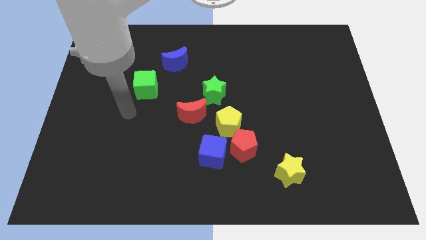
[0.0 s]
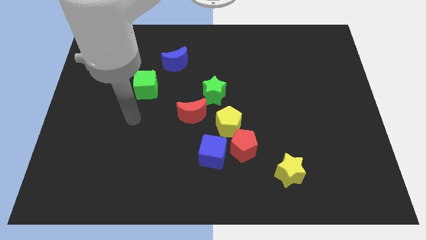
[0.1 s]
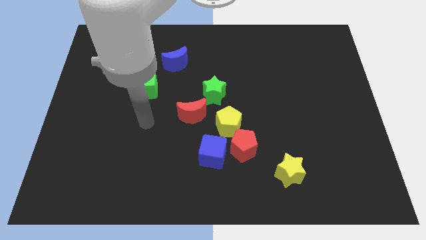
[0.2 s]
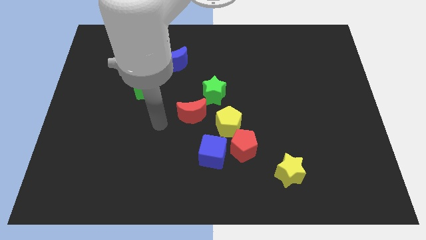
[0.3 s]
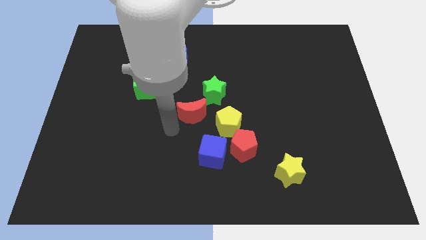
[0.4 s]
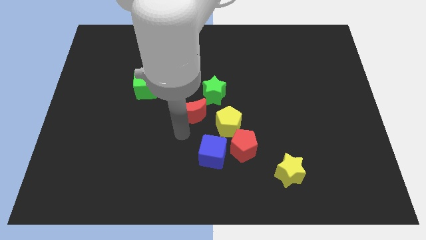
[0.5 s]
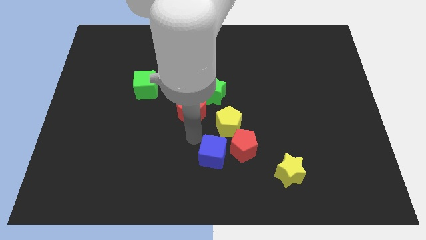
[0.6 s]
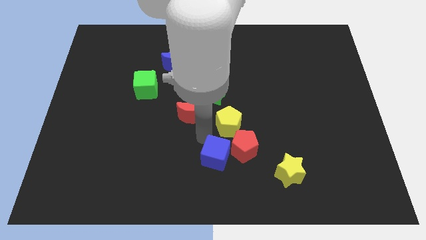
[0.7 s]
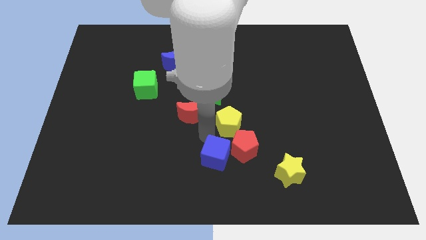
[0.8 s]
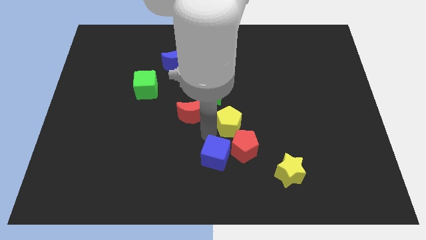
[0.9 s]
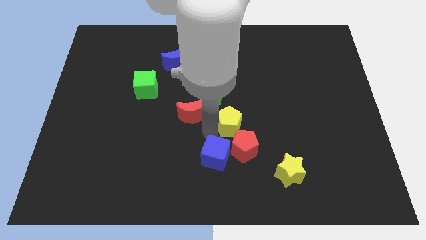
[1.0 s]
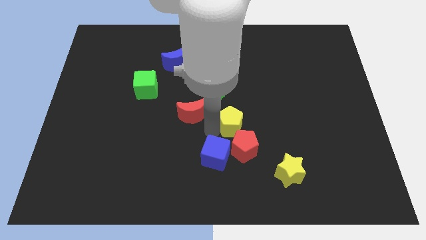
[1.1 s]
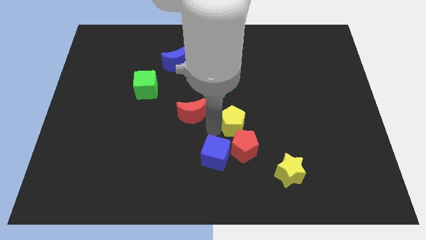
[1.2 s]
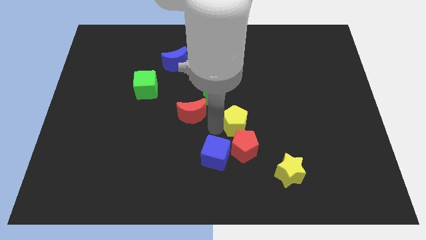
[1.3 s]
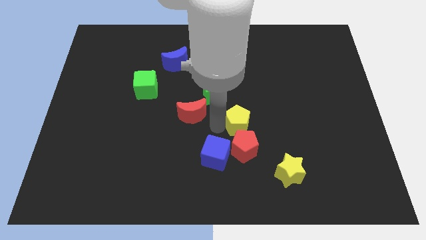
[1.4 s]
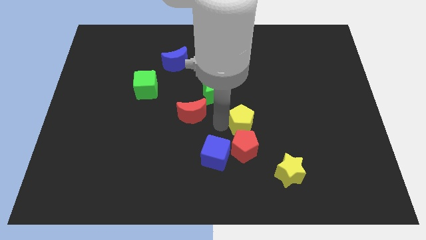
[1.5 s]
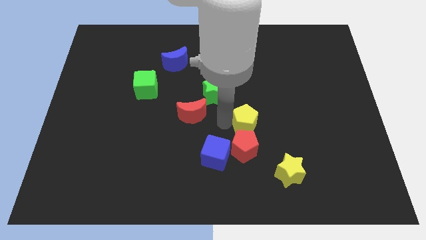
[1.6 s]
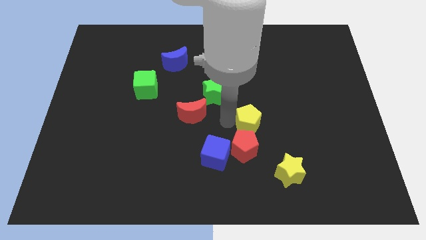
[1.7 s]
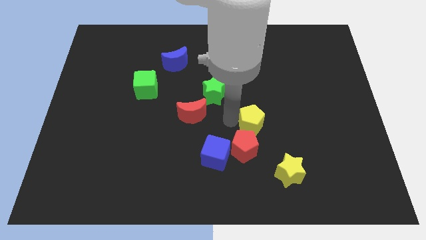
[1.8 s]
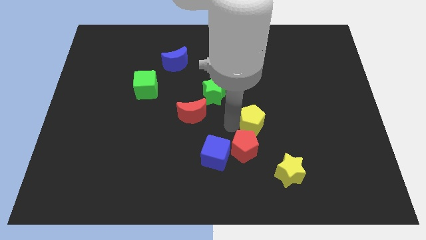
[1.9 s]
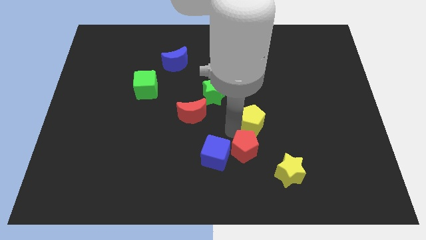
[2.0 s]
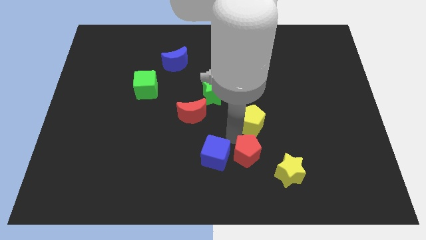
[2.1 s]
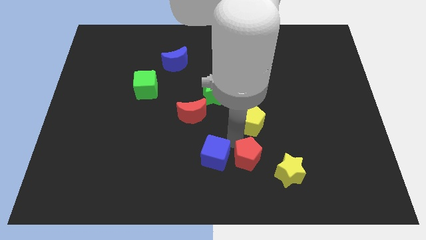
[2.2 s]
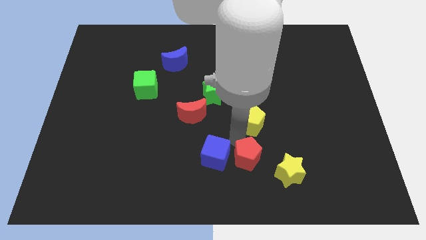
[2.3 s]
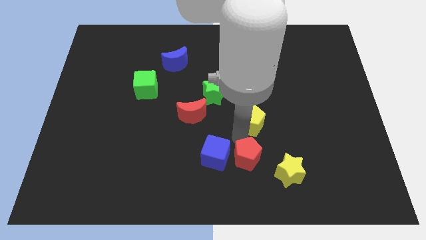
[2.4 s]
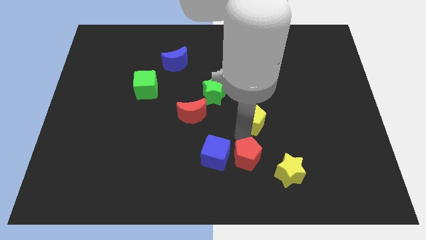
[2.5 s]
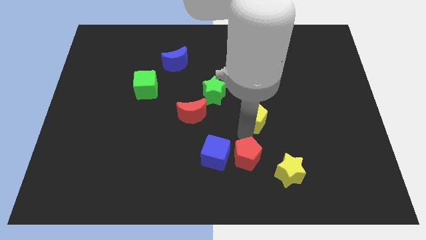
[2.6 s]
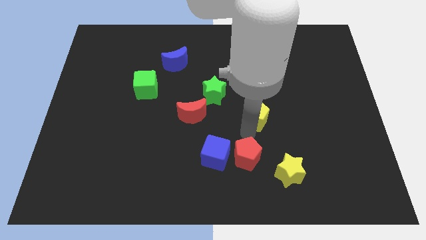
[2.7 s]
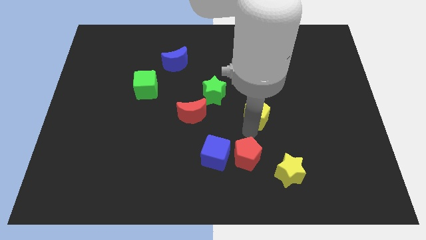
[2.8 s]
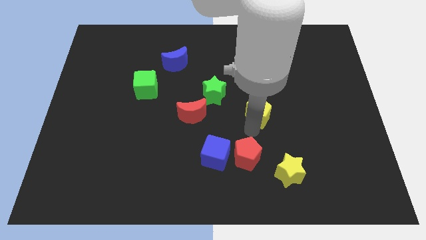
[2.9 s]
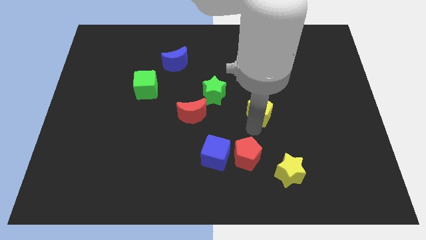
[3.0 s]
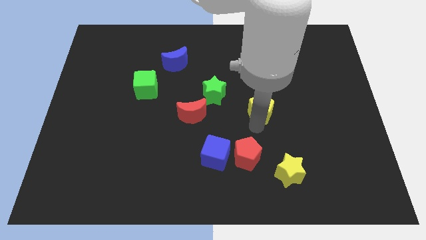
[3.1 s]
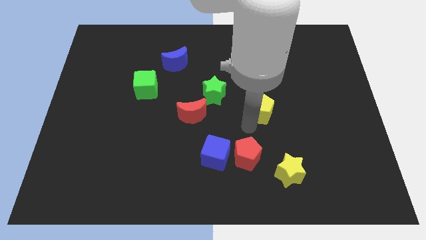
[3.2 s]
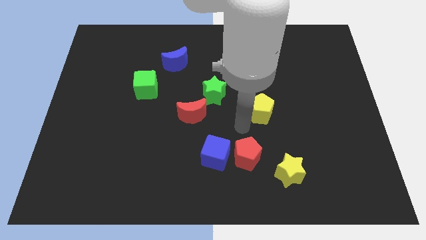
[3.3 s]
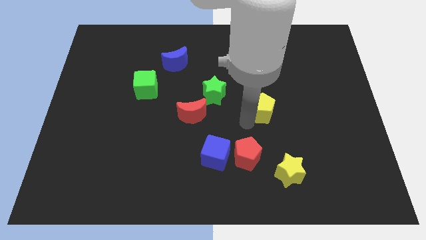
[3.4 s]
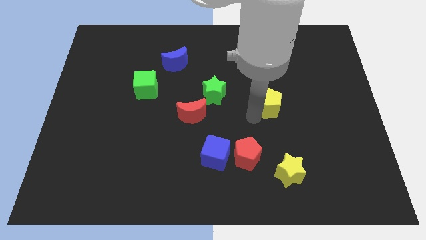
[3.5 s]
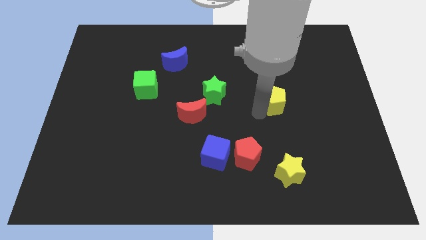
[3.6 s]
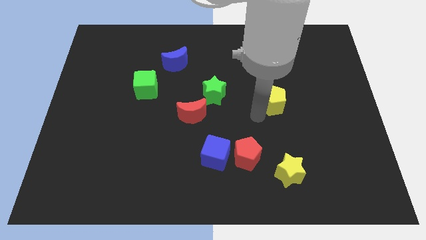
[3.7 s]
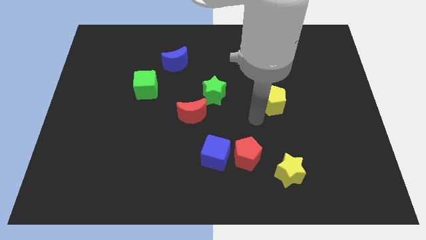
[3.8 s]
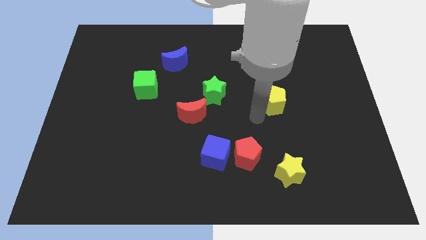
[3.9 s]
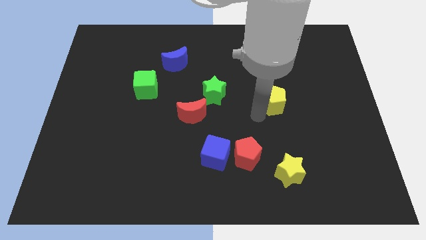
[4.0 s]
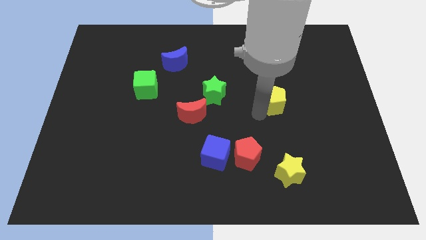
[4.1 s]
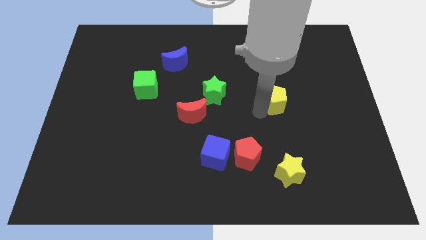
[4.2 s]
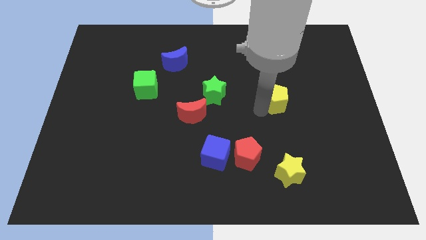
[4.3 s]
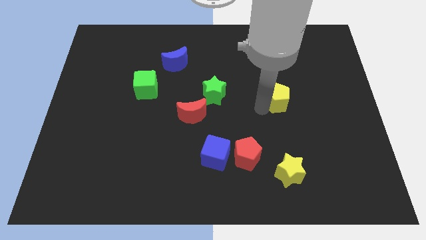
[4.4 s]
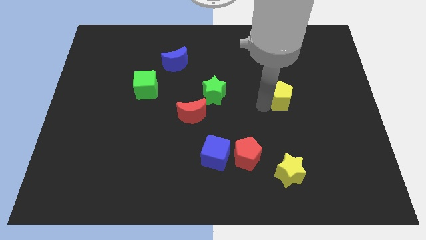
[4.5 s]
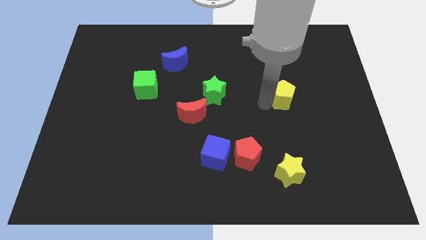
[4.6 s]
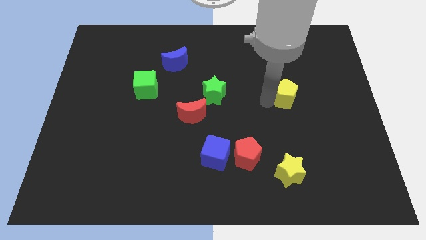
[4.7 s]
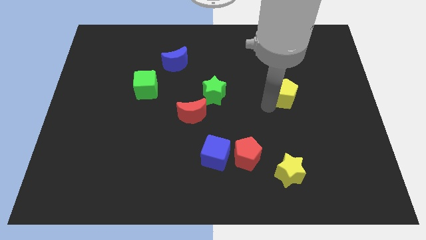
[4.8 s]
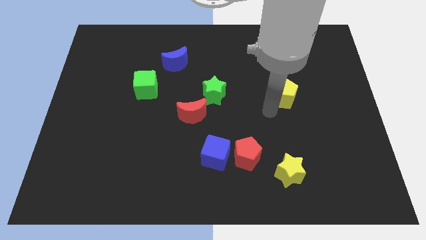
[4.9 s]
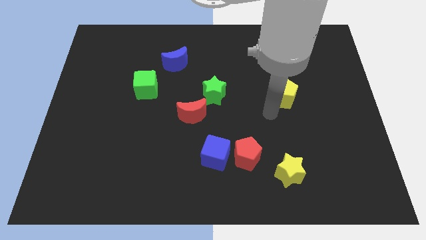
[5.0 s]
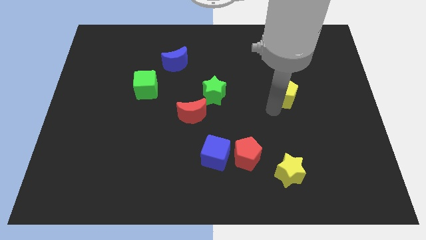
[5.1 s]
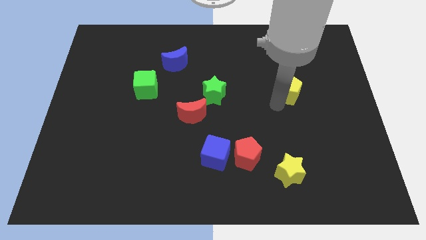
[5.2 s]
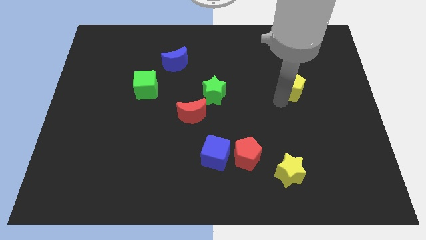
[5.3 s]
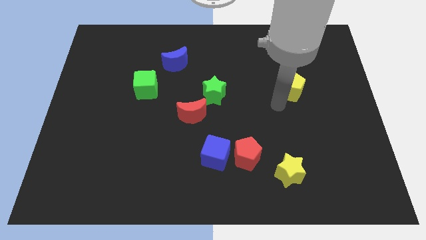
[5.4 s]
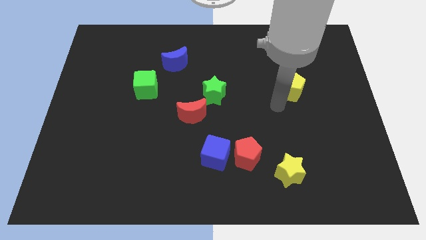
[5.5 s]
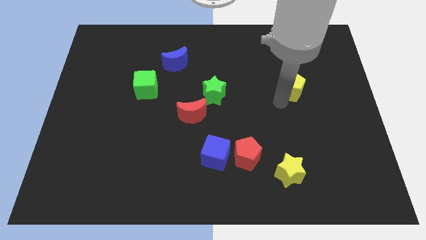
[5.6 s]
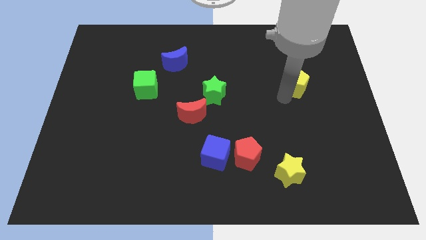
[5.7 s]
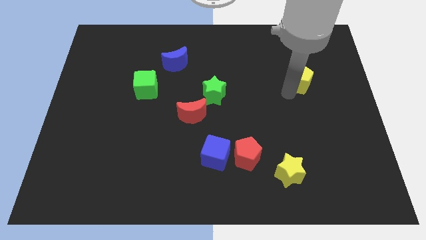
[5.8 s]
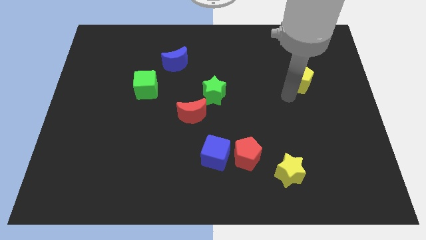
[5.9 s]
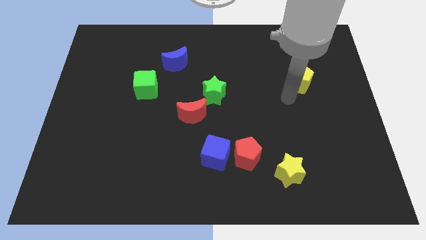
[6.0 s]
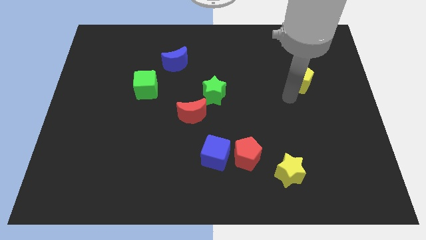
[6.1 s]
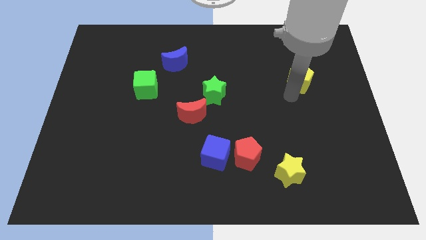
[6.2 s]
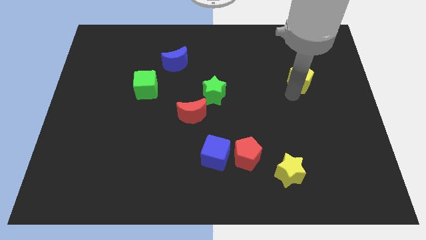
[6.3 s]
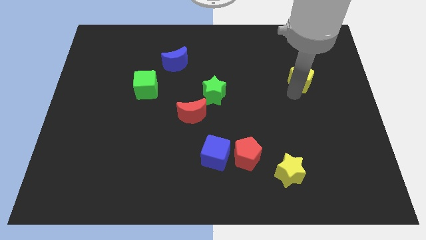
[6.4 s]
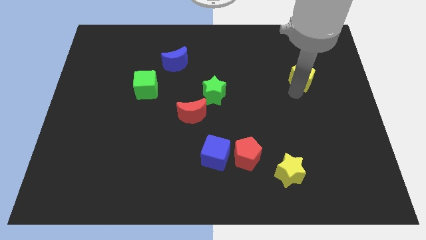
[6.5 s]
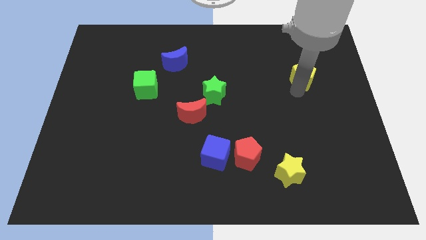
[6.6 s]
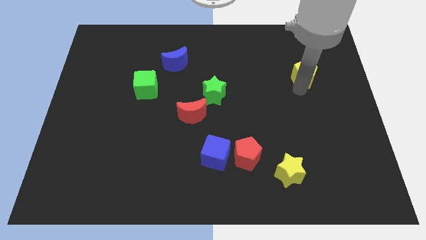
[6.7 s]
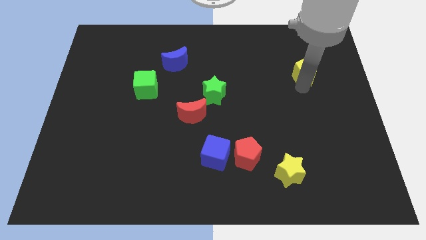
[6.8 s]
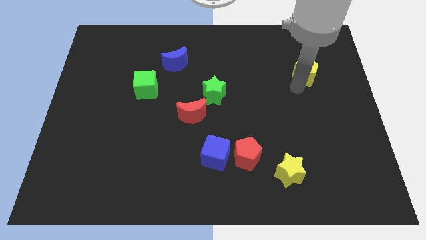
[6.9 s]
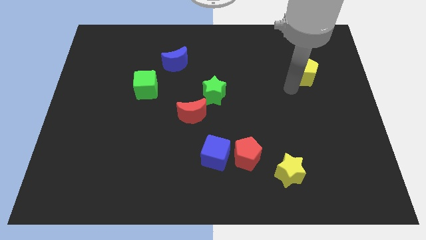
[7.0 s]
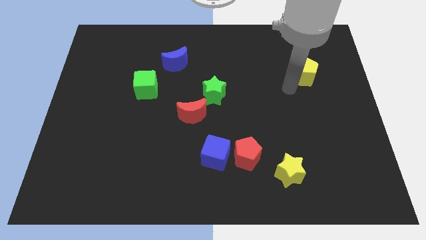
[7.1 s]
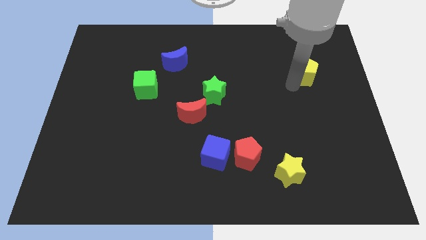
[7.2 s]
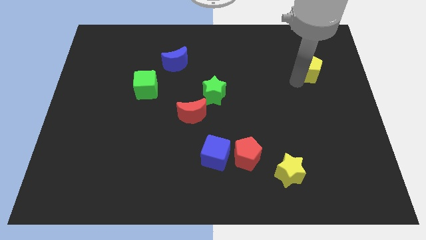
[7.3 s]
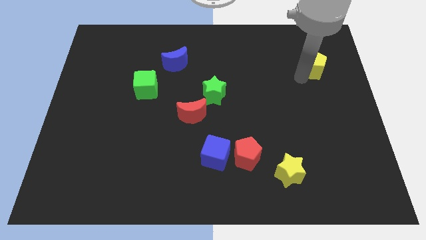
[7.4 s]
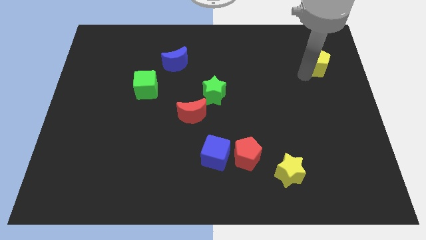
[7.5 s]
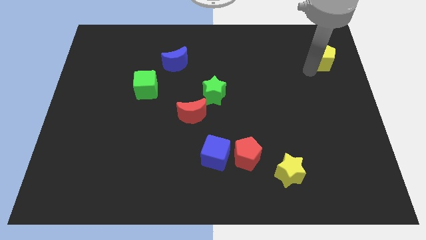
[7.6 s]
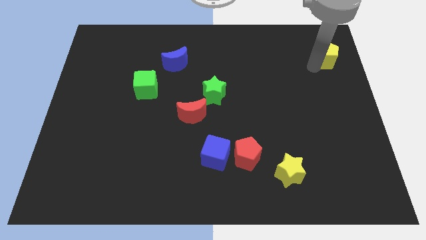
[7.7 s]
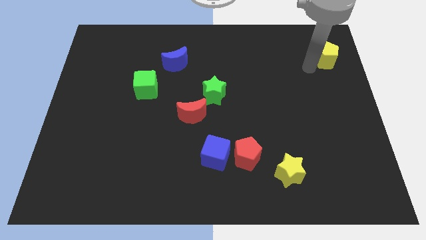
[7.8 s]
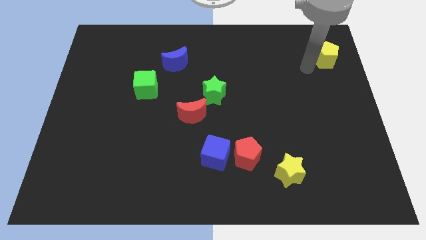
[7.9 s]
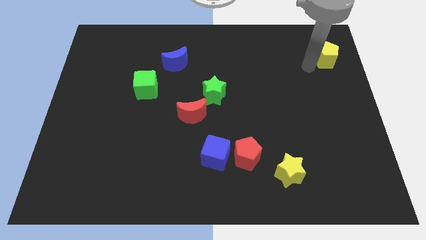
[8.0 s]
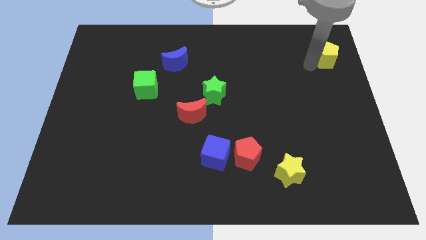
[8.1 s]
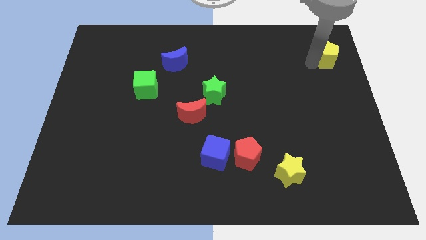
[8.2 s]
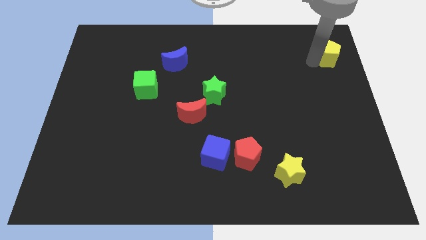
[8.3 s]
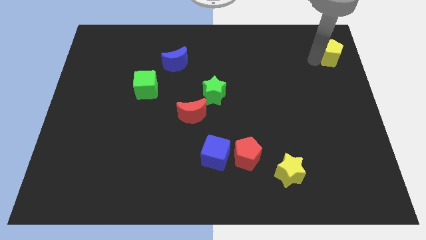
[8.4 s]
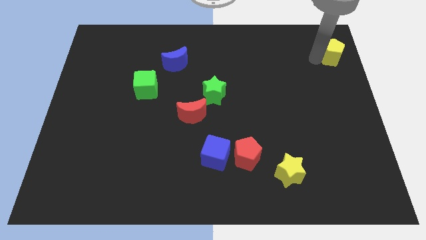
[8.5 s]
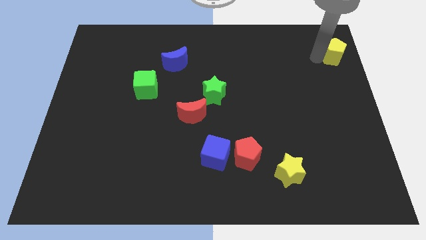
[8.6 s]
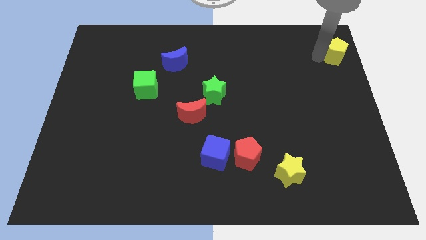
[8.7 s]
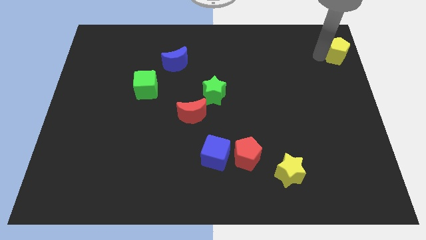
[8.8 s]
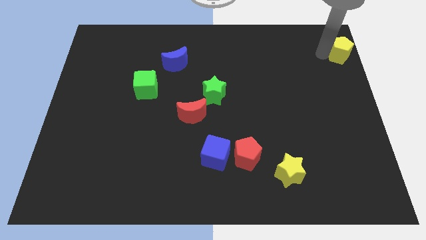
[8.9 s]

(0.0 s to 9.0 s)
slide the yellow pentagon to the top right of the board
